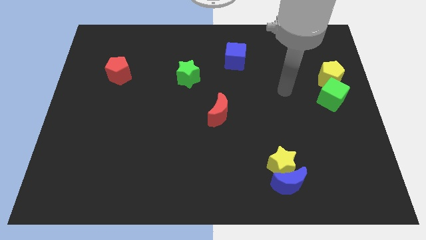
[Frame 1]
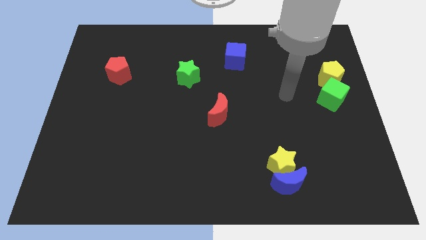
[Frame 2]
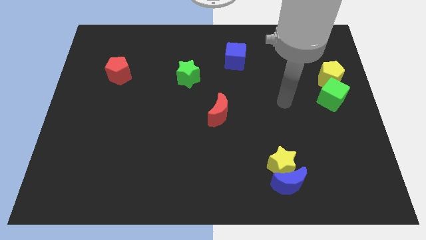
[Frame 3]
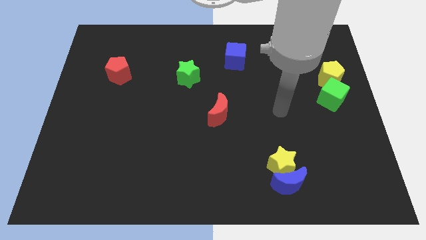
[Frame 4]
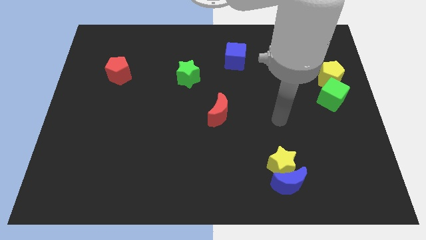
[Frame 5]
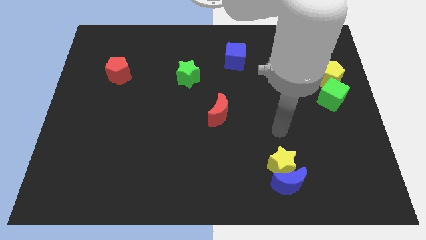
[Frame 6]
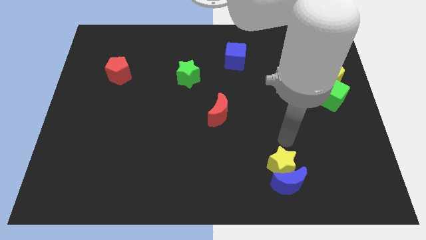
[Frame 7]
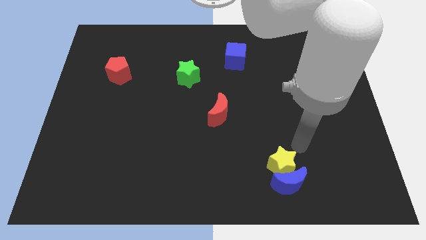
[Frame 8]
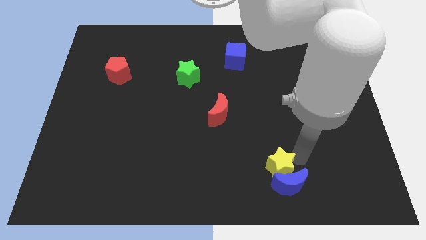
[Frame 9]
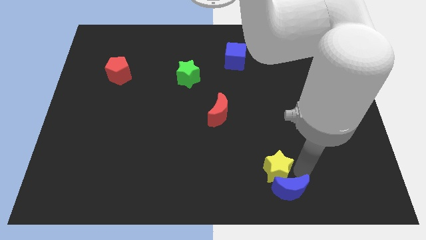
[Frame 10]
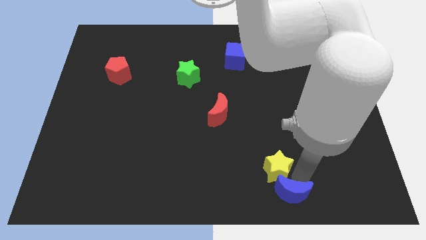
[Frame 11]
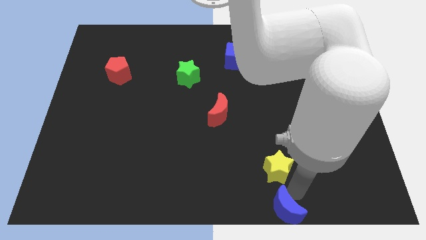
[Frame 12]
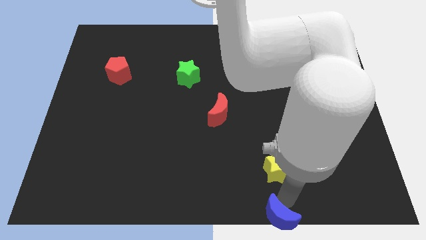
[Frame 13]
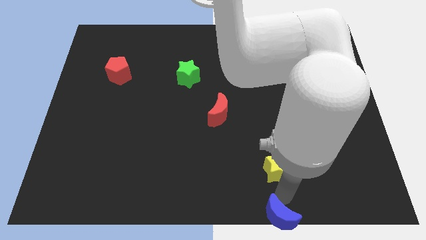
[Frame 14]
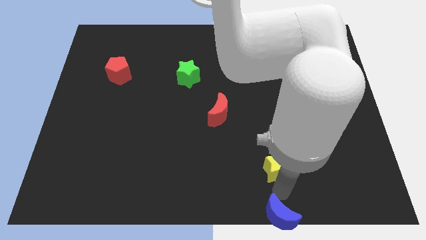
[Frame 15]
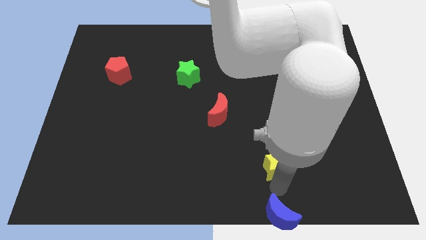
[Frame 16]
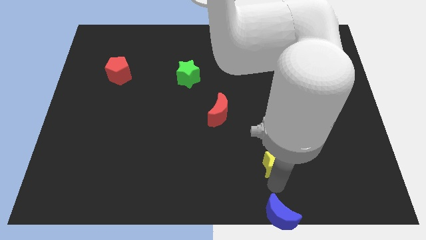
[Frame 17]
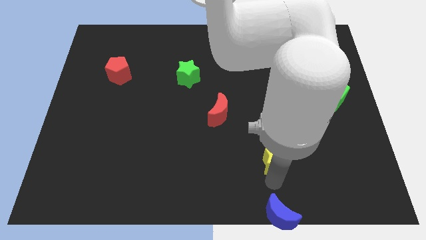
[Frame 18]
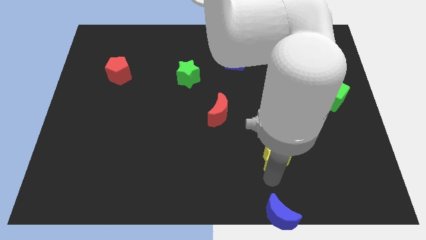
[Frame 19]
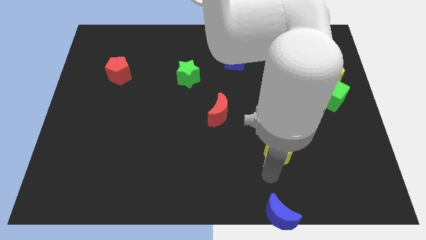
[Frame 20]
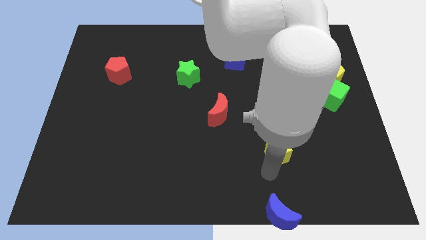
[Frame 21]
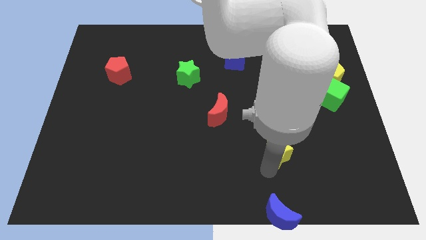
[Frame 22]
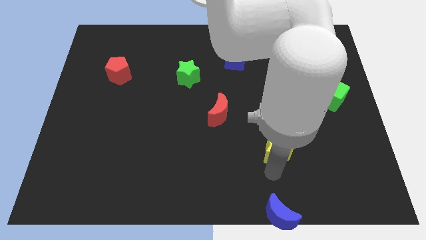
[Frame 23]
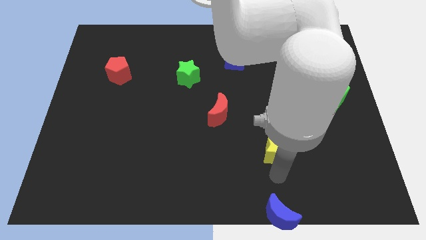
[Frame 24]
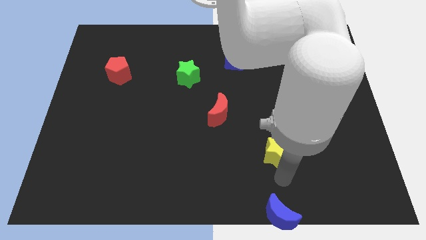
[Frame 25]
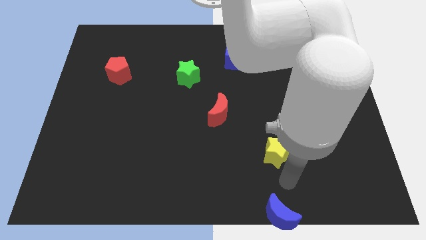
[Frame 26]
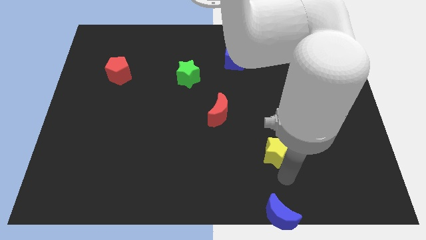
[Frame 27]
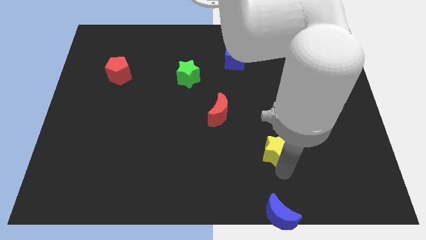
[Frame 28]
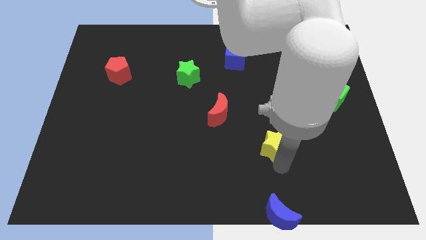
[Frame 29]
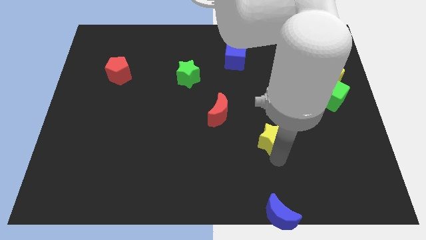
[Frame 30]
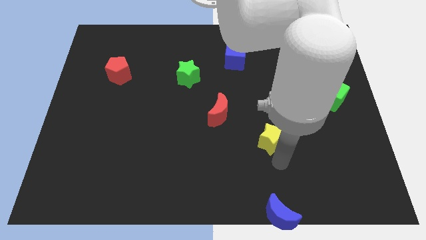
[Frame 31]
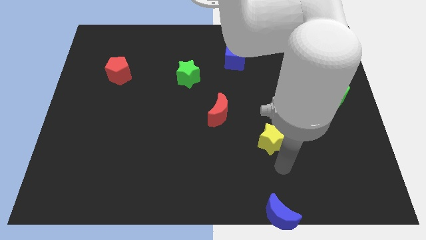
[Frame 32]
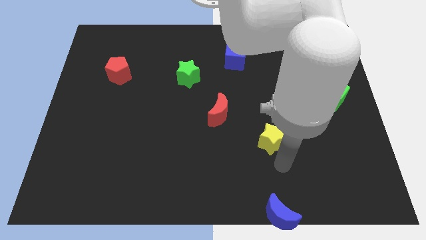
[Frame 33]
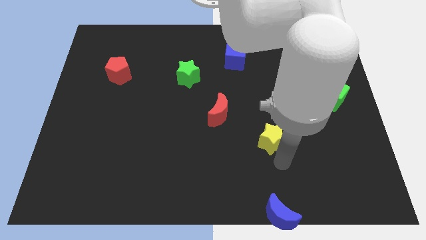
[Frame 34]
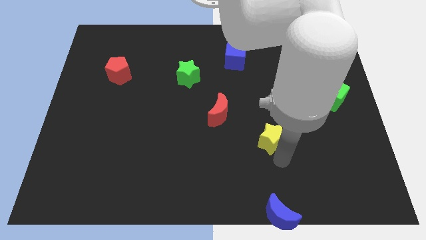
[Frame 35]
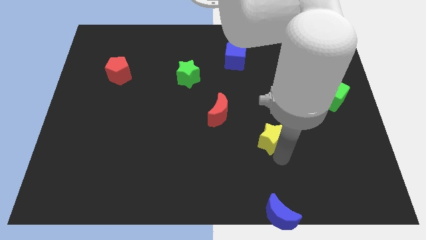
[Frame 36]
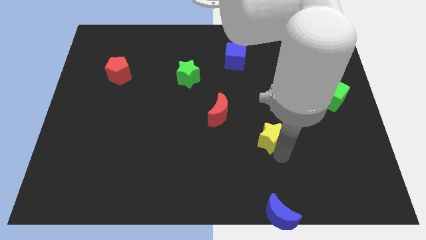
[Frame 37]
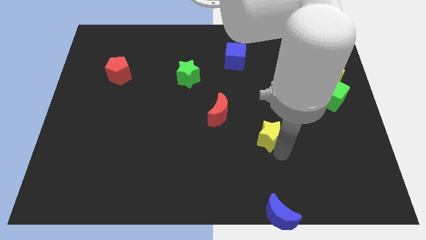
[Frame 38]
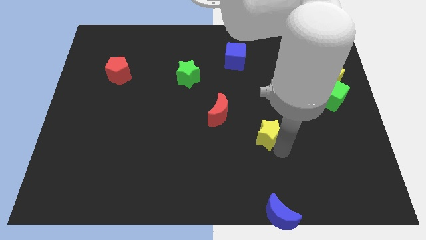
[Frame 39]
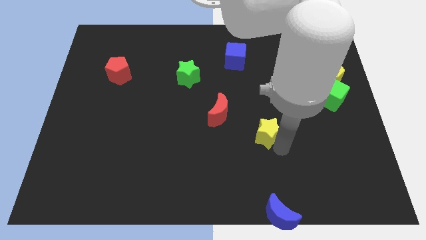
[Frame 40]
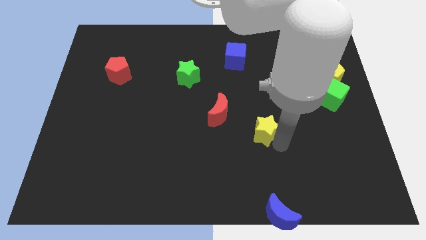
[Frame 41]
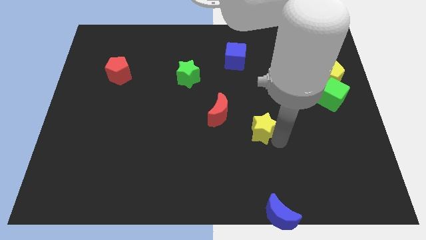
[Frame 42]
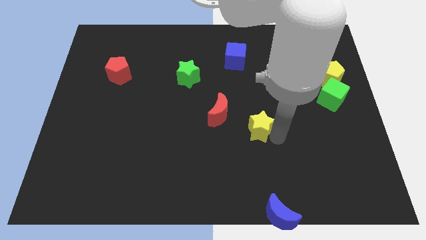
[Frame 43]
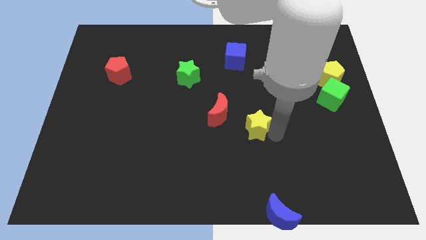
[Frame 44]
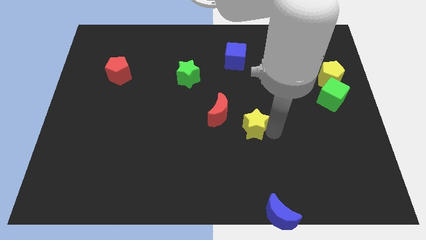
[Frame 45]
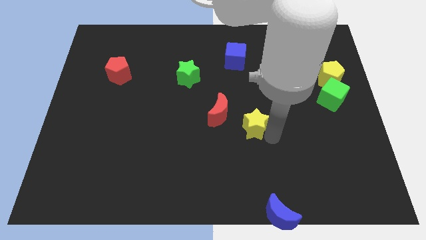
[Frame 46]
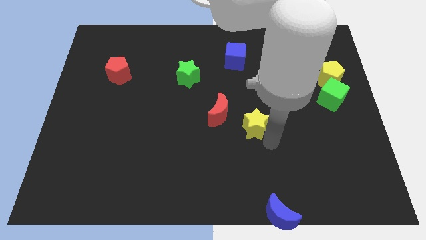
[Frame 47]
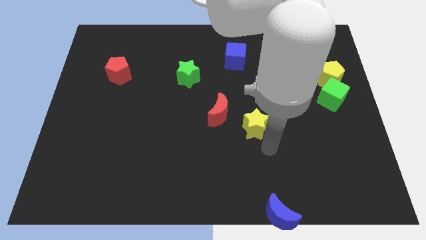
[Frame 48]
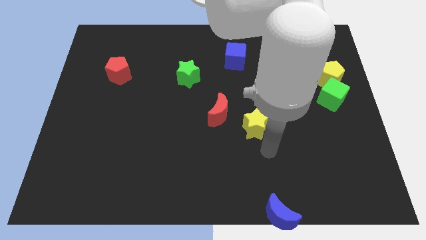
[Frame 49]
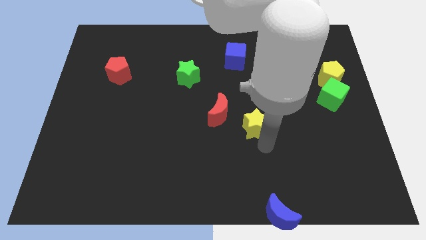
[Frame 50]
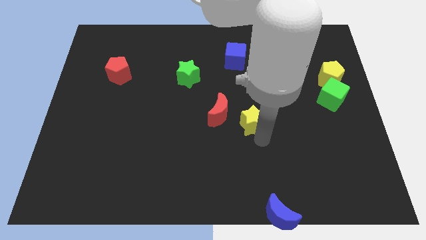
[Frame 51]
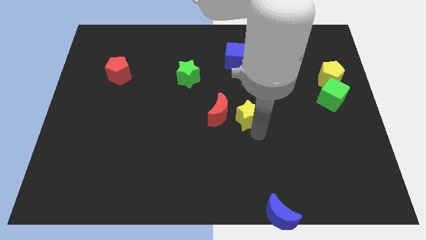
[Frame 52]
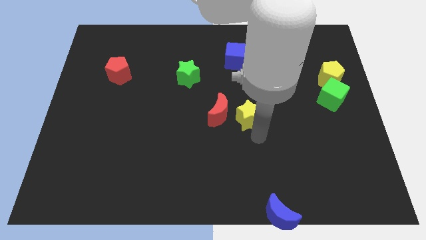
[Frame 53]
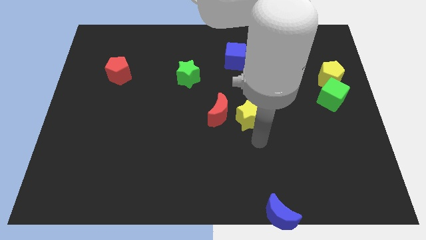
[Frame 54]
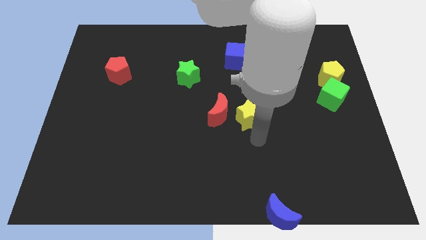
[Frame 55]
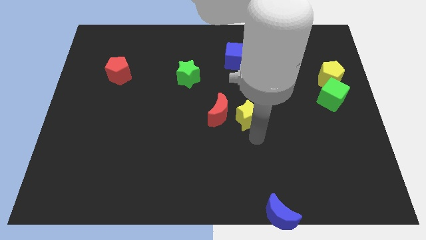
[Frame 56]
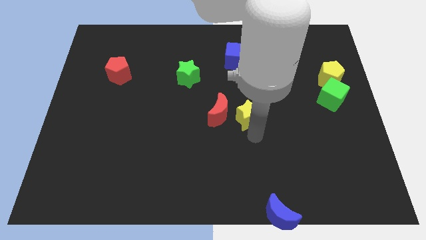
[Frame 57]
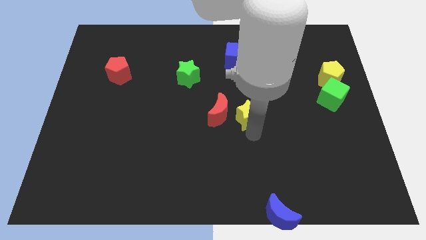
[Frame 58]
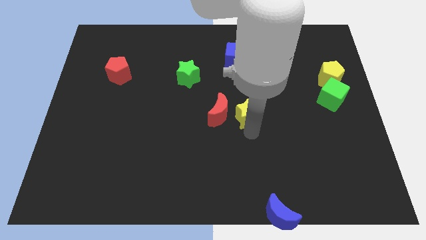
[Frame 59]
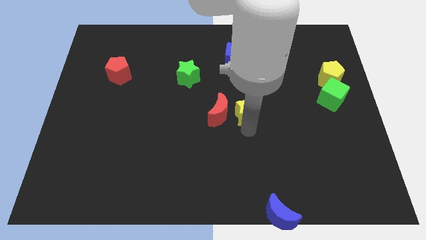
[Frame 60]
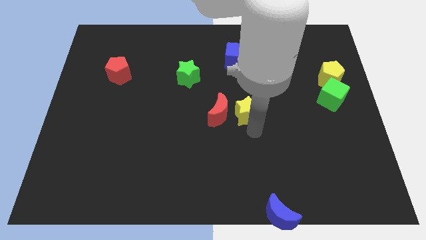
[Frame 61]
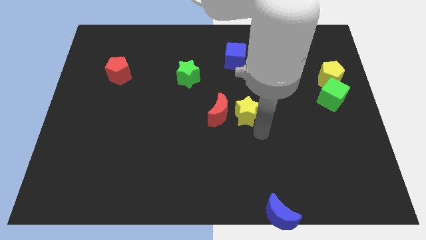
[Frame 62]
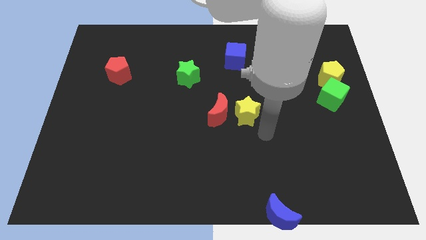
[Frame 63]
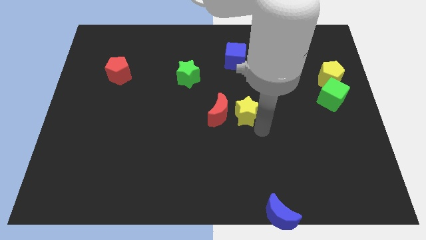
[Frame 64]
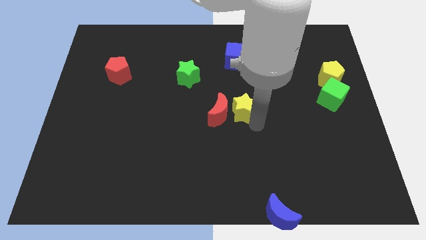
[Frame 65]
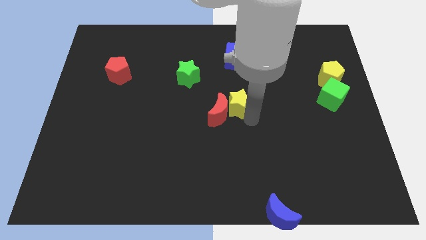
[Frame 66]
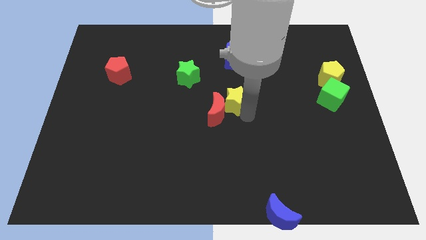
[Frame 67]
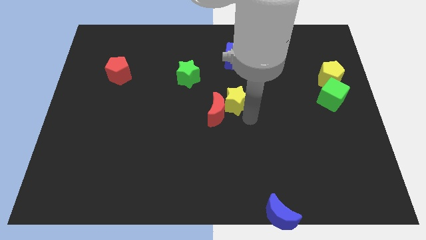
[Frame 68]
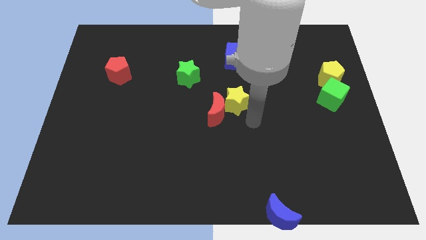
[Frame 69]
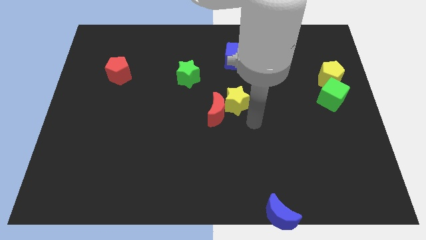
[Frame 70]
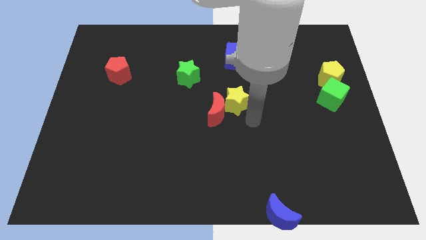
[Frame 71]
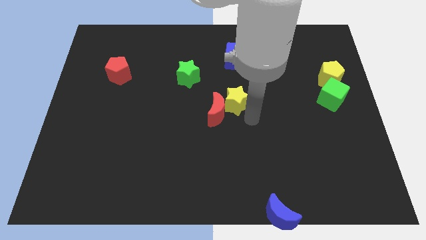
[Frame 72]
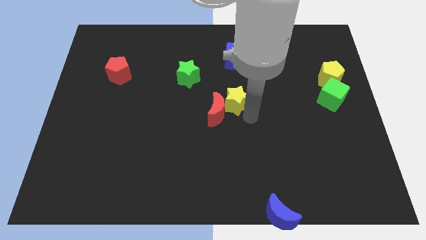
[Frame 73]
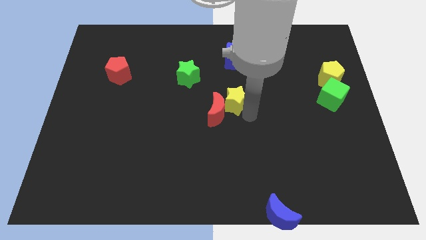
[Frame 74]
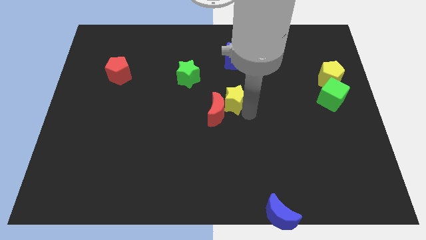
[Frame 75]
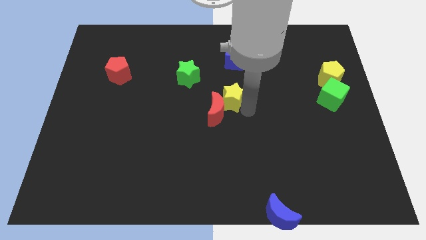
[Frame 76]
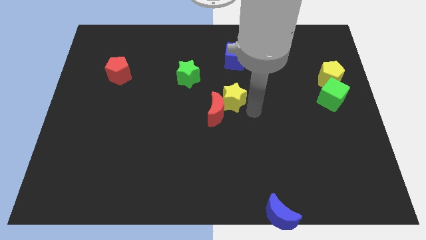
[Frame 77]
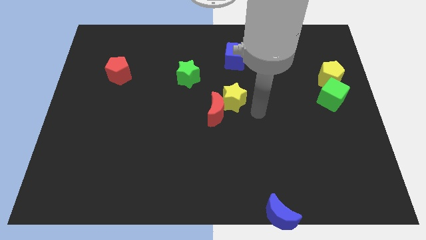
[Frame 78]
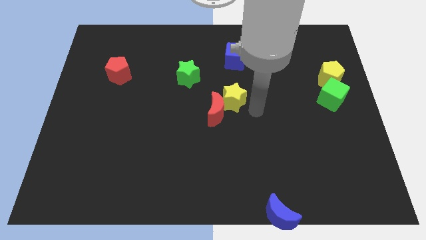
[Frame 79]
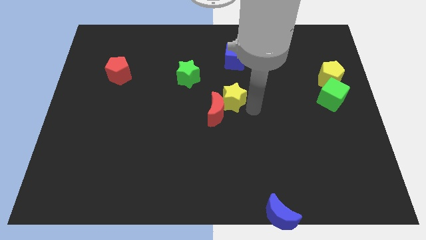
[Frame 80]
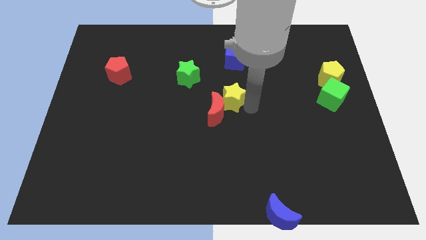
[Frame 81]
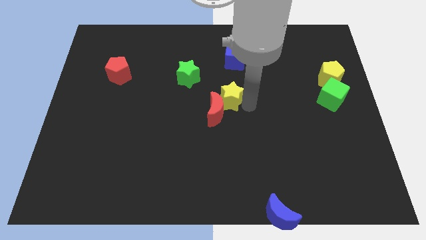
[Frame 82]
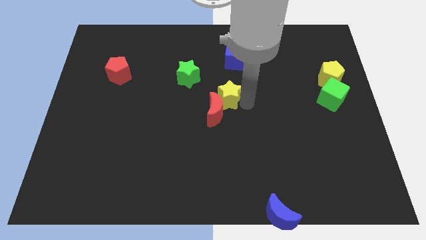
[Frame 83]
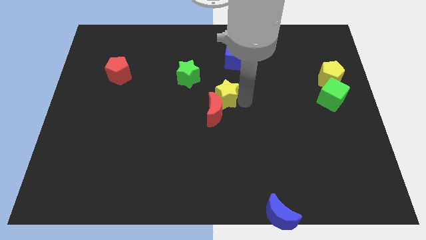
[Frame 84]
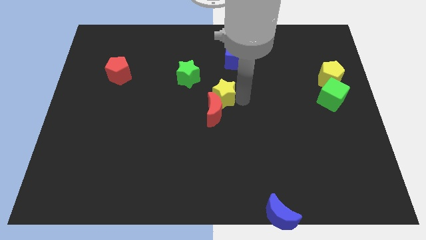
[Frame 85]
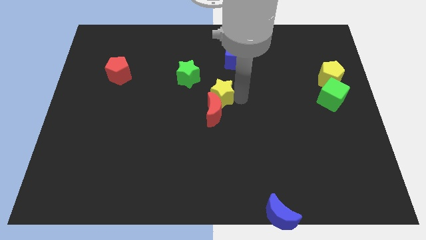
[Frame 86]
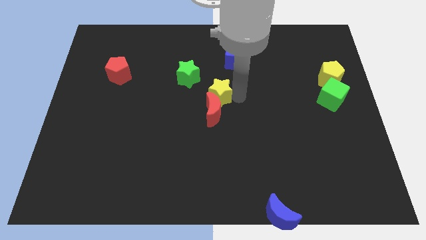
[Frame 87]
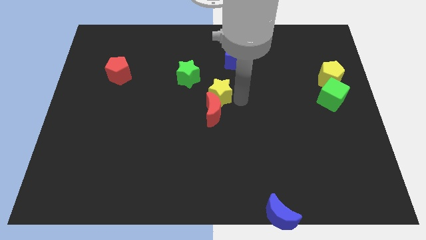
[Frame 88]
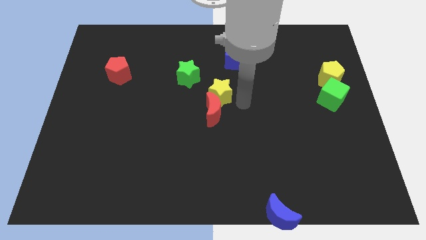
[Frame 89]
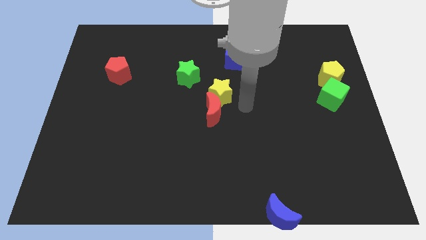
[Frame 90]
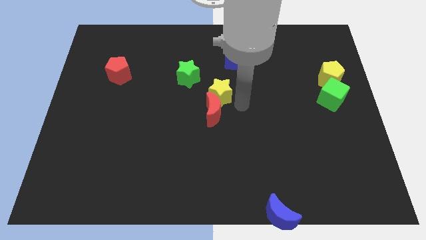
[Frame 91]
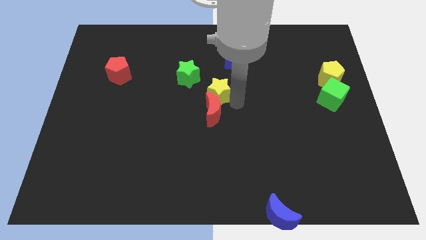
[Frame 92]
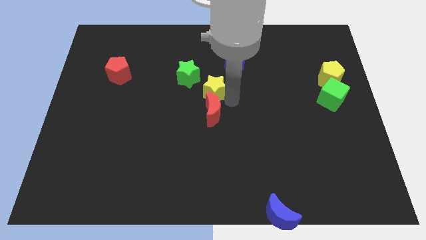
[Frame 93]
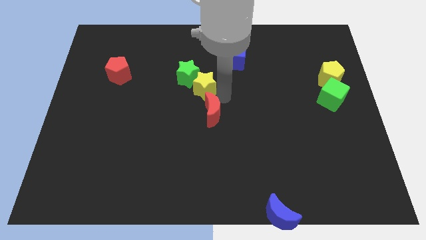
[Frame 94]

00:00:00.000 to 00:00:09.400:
push the yellow star close to the green star
